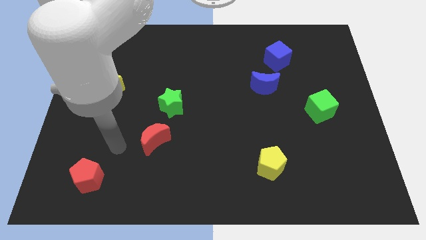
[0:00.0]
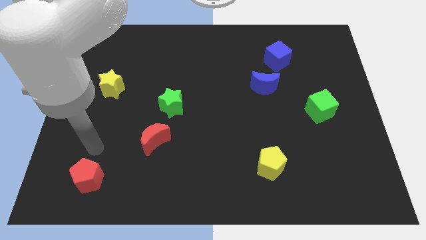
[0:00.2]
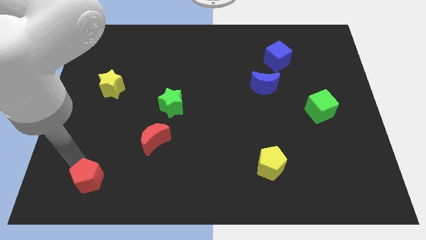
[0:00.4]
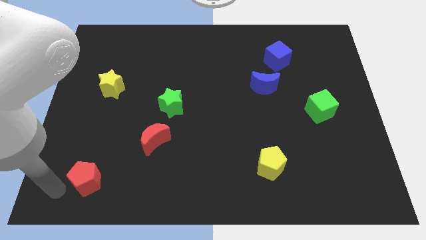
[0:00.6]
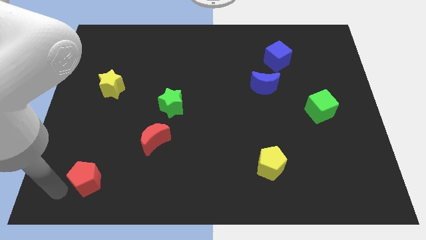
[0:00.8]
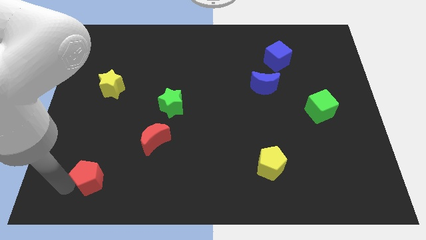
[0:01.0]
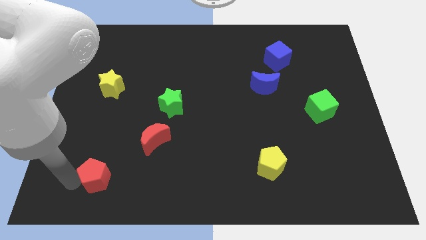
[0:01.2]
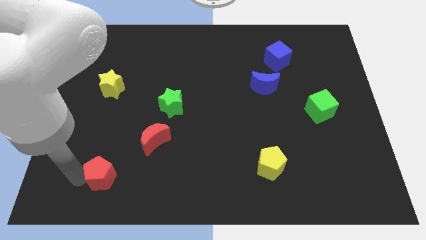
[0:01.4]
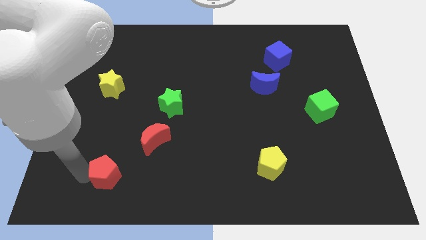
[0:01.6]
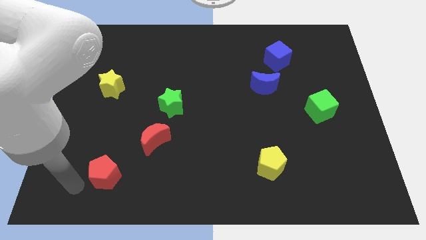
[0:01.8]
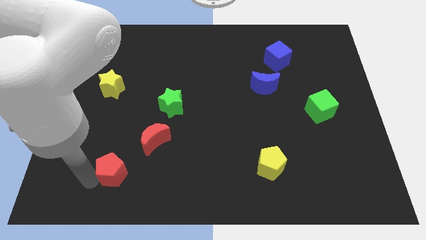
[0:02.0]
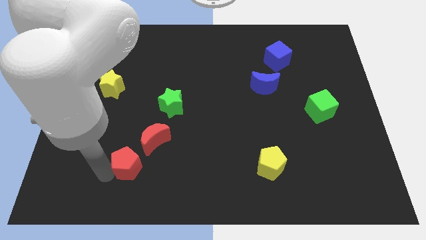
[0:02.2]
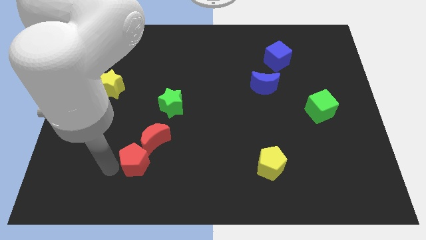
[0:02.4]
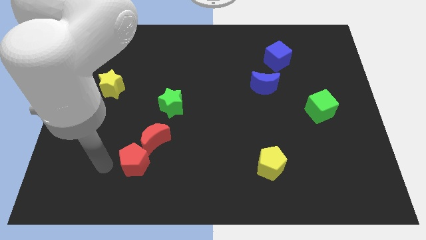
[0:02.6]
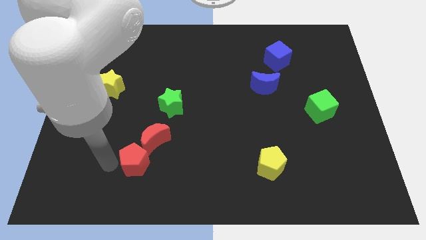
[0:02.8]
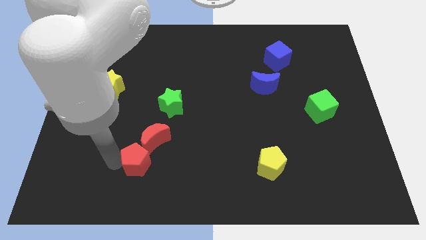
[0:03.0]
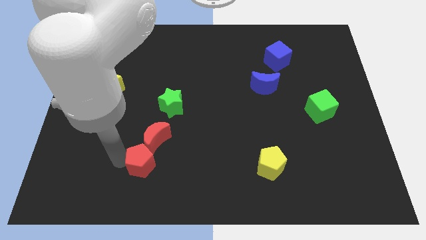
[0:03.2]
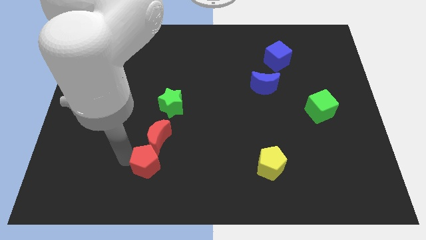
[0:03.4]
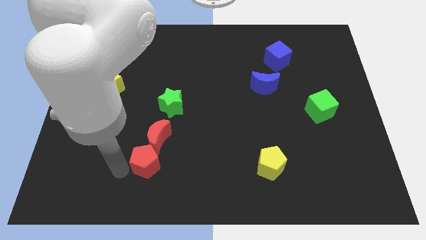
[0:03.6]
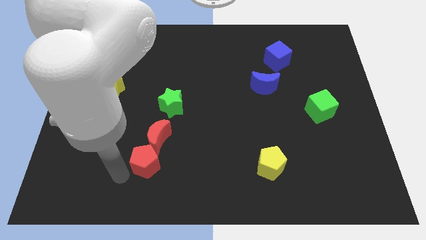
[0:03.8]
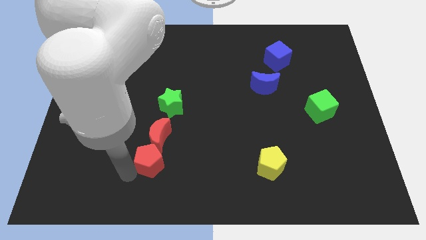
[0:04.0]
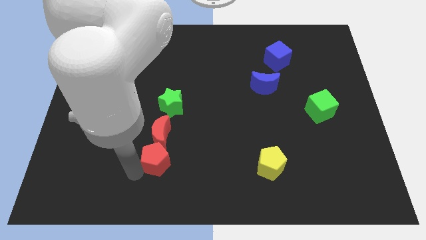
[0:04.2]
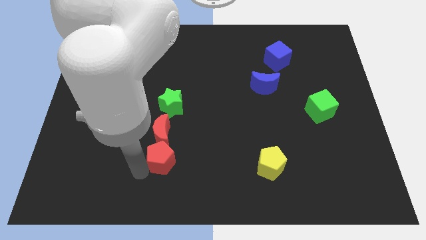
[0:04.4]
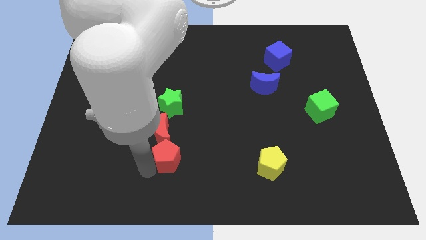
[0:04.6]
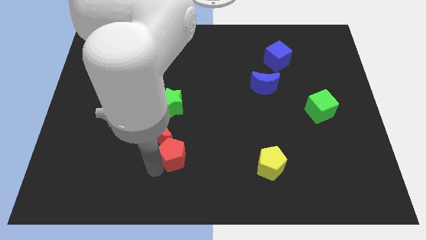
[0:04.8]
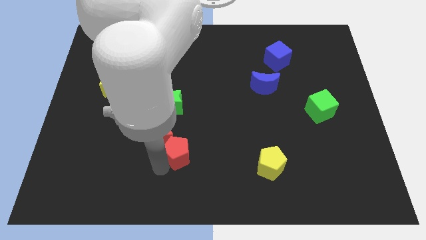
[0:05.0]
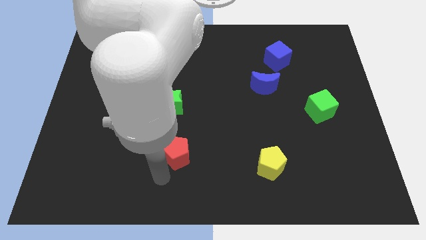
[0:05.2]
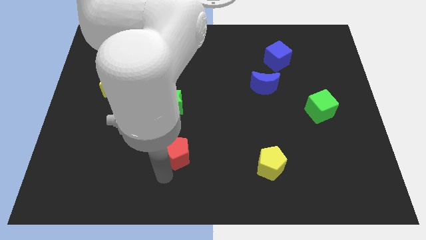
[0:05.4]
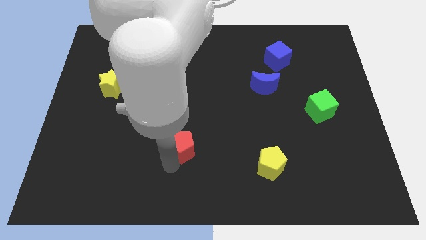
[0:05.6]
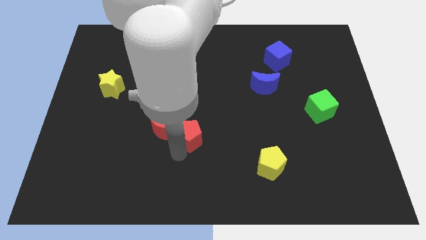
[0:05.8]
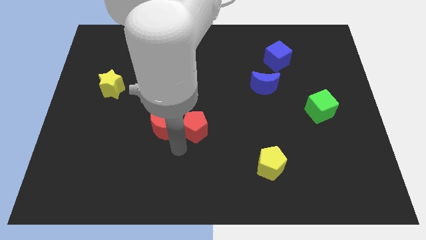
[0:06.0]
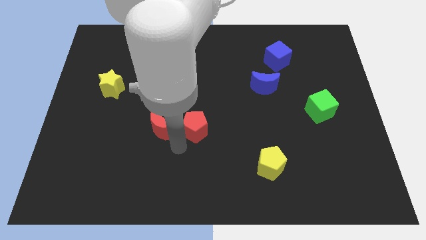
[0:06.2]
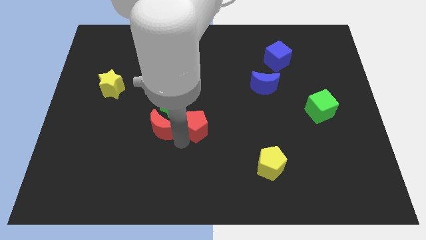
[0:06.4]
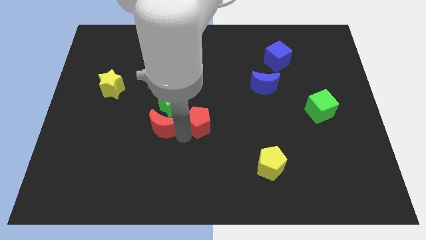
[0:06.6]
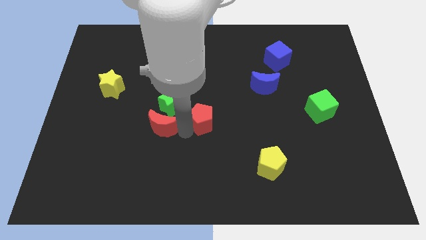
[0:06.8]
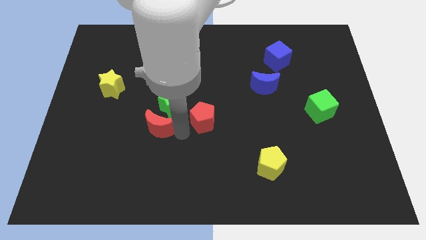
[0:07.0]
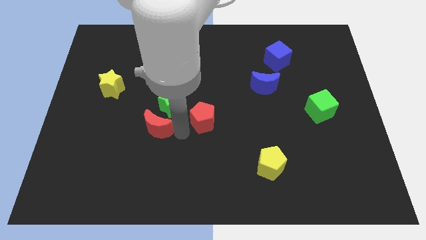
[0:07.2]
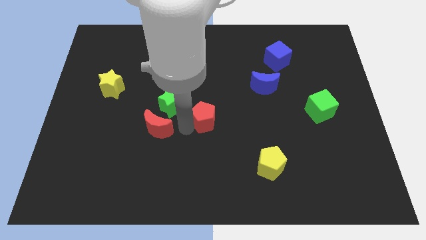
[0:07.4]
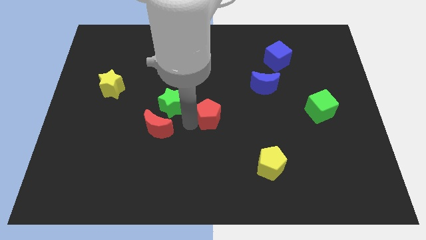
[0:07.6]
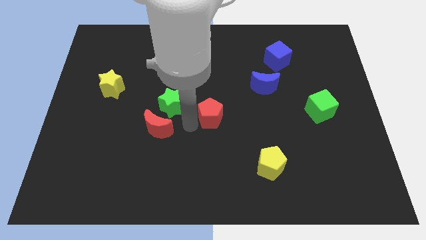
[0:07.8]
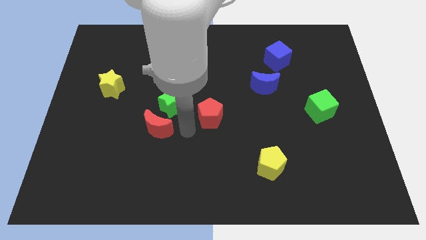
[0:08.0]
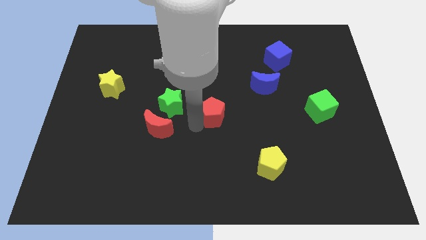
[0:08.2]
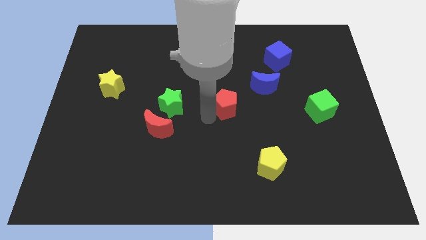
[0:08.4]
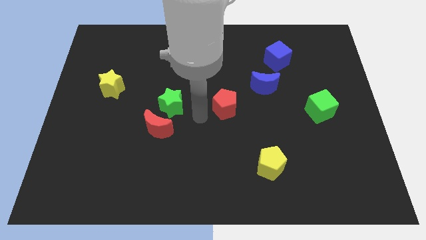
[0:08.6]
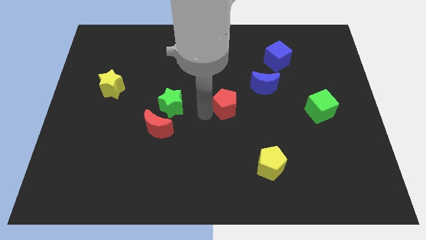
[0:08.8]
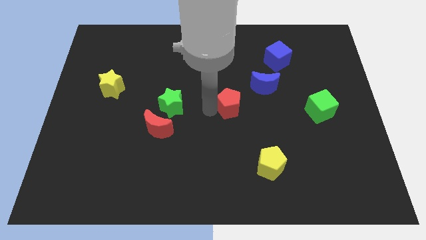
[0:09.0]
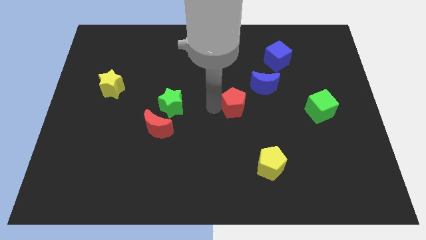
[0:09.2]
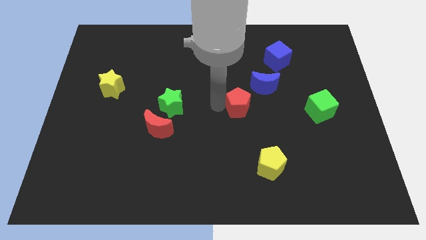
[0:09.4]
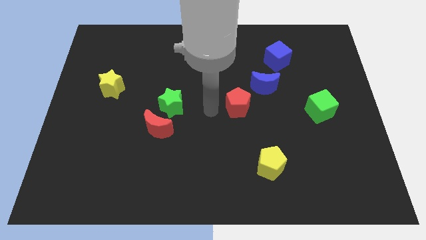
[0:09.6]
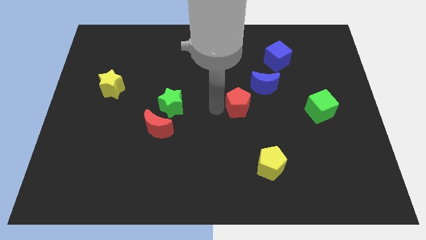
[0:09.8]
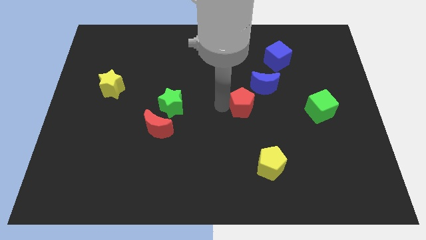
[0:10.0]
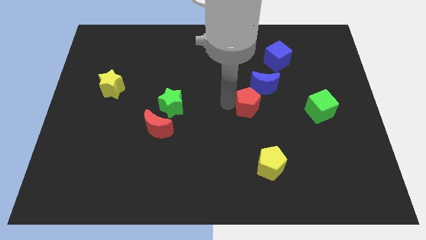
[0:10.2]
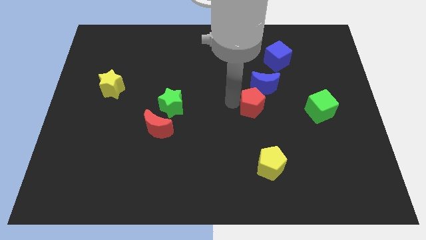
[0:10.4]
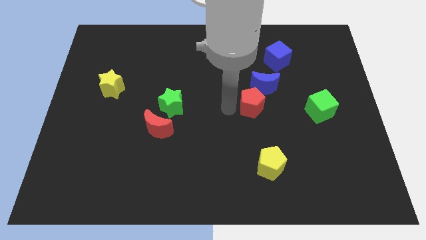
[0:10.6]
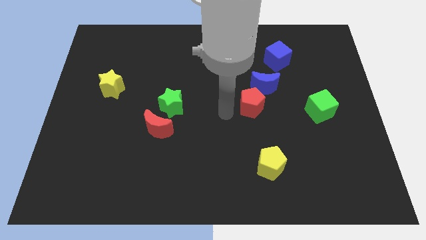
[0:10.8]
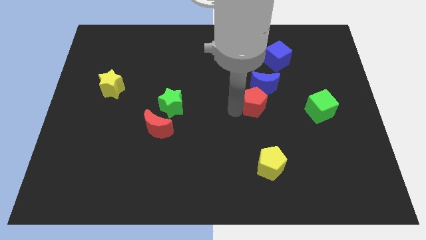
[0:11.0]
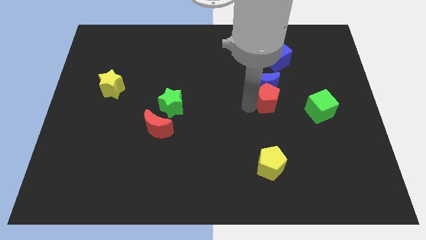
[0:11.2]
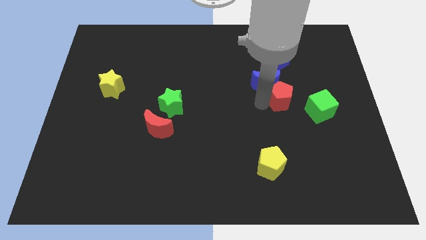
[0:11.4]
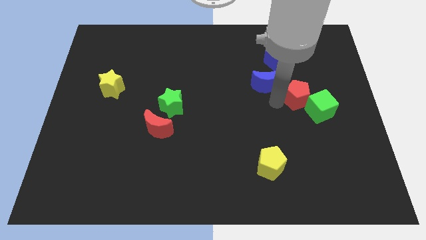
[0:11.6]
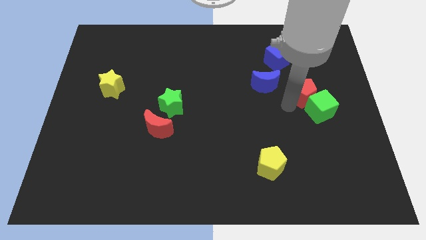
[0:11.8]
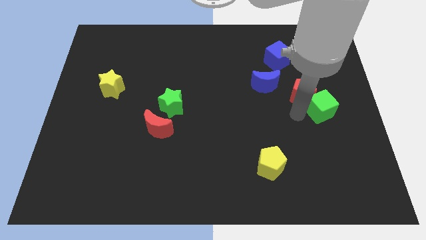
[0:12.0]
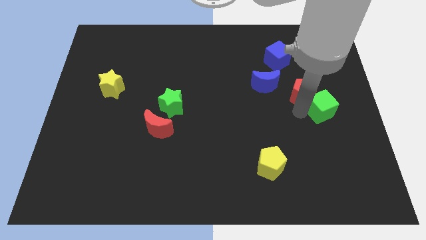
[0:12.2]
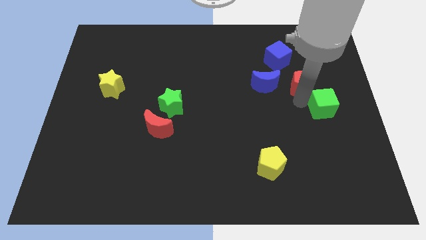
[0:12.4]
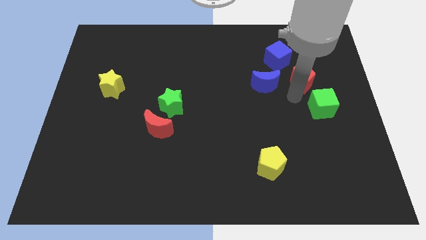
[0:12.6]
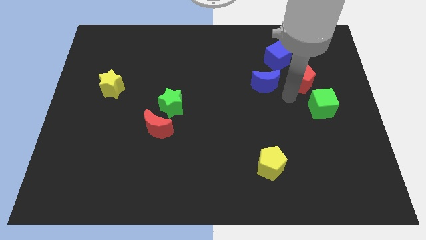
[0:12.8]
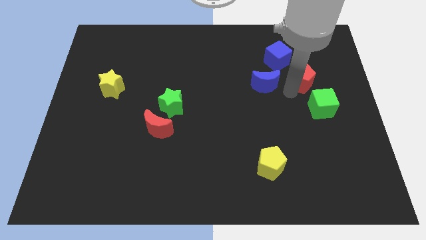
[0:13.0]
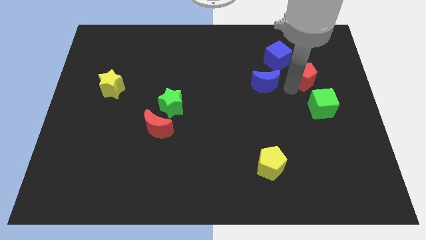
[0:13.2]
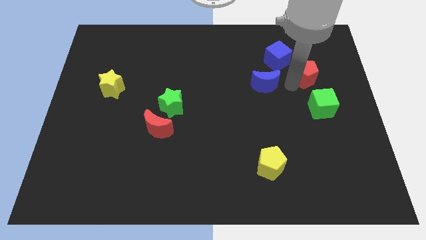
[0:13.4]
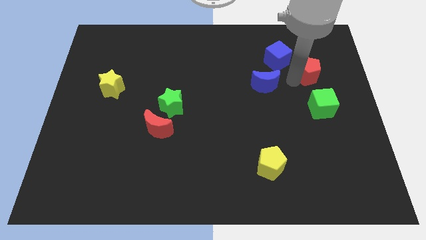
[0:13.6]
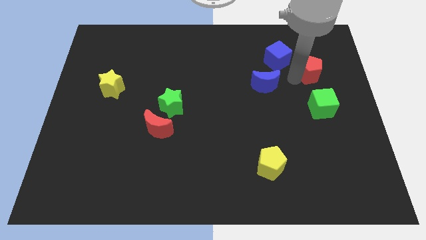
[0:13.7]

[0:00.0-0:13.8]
push the red pentagon to the right of the blue cube
